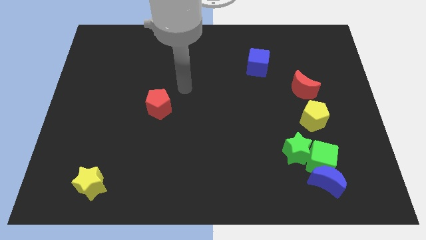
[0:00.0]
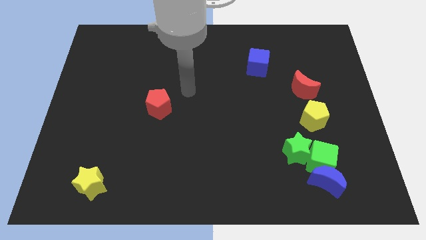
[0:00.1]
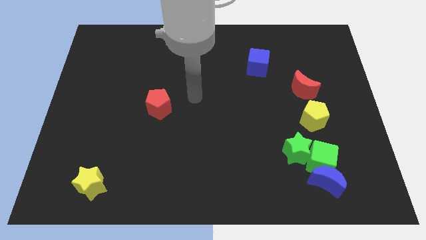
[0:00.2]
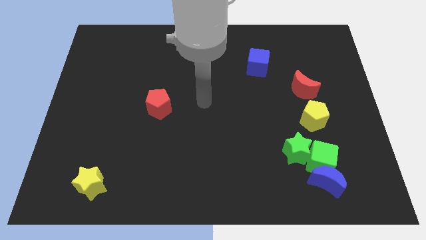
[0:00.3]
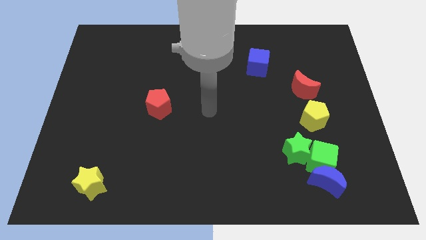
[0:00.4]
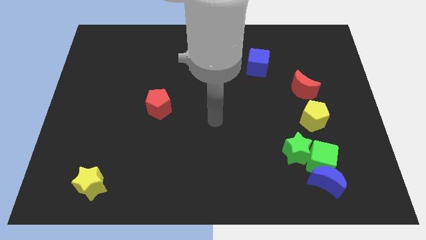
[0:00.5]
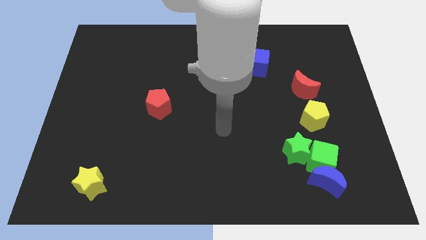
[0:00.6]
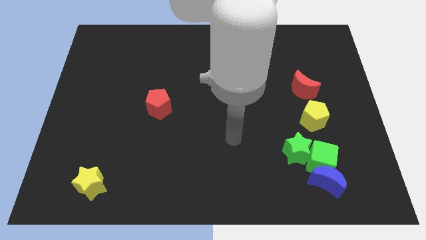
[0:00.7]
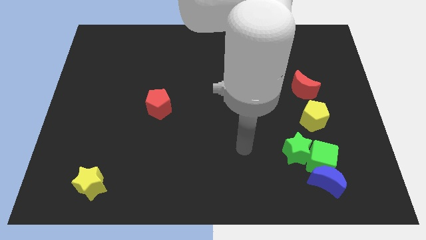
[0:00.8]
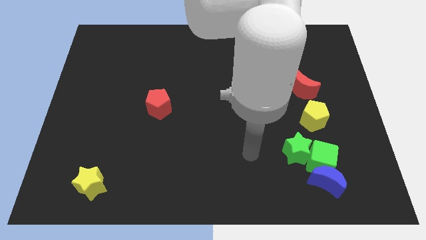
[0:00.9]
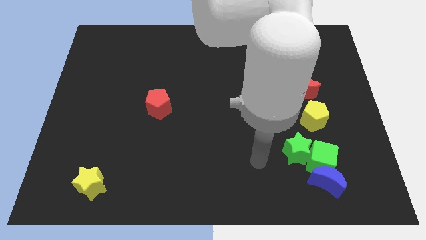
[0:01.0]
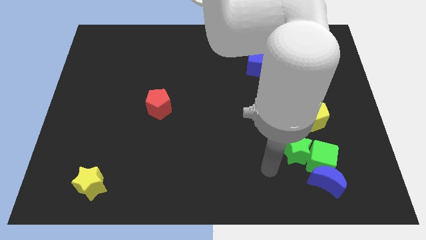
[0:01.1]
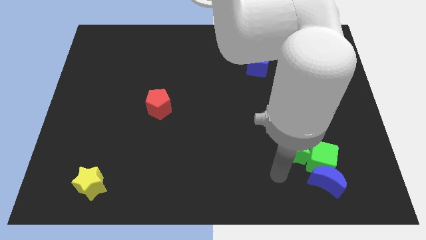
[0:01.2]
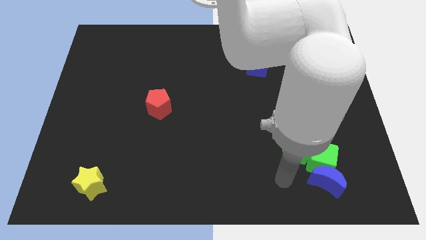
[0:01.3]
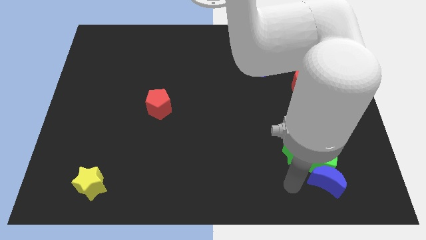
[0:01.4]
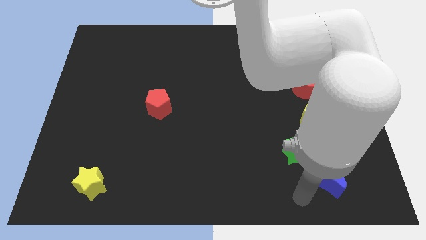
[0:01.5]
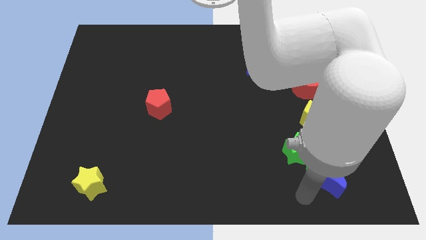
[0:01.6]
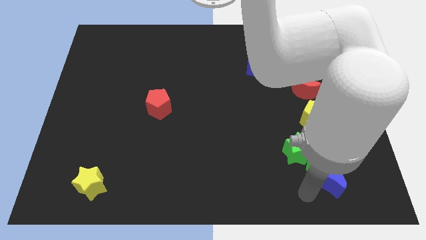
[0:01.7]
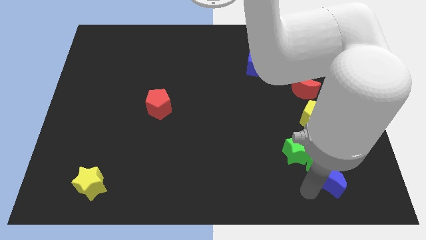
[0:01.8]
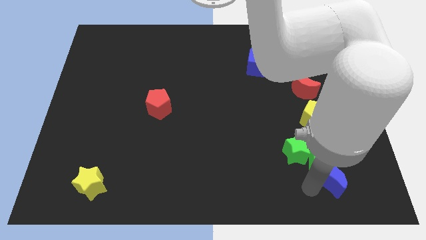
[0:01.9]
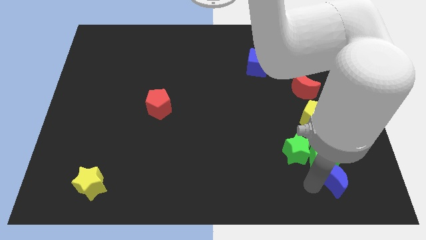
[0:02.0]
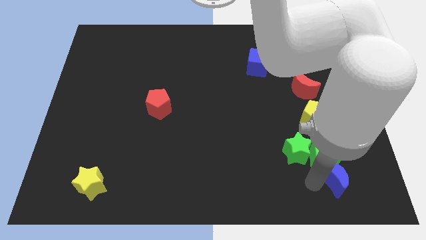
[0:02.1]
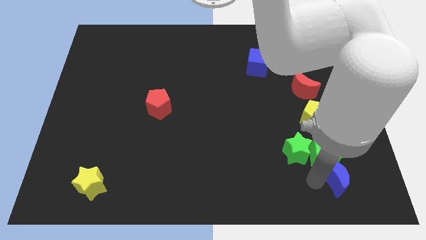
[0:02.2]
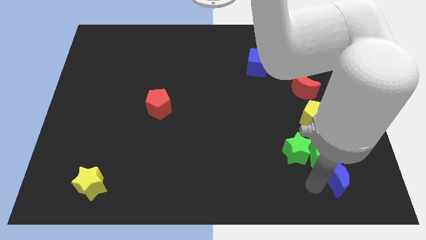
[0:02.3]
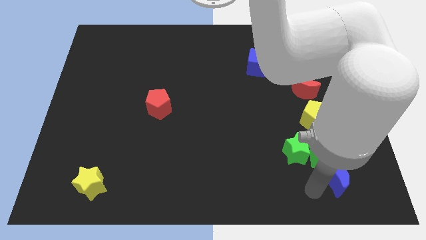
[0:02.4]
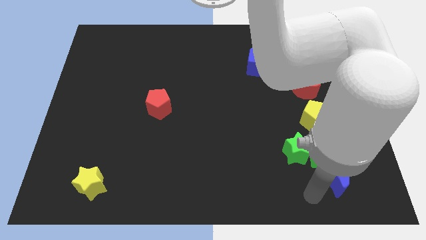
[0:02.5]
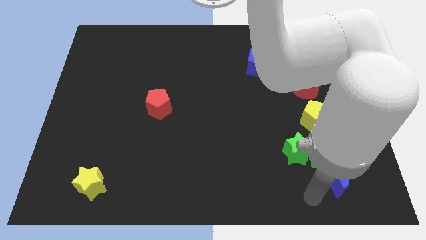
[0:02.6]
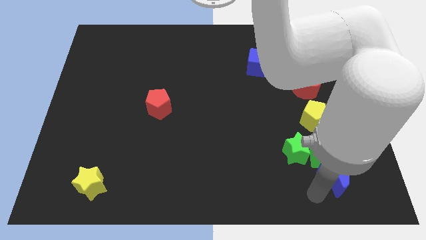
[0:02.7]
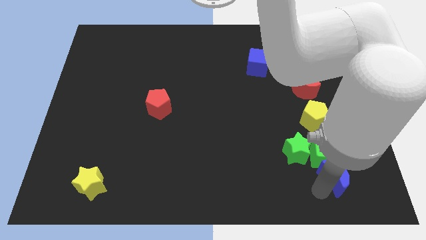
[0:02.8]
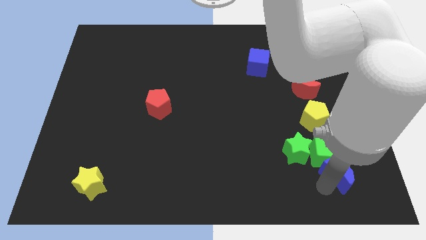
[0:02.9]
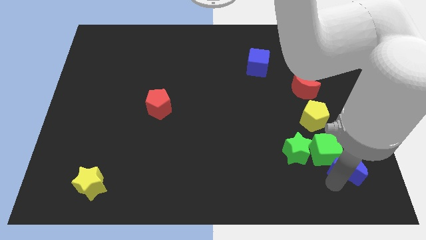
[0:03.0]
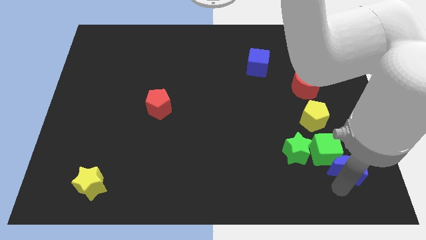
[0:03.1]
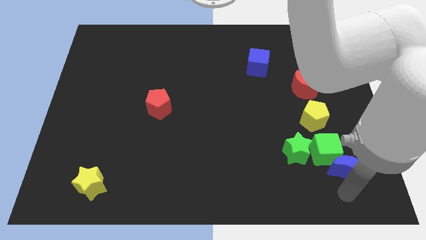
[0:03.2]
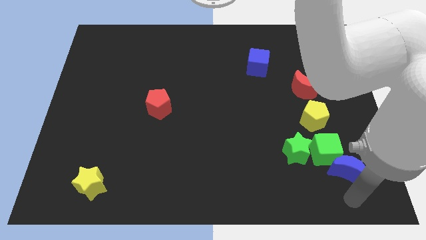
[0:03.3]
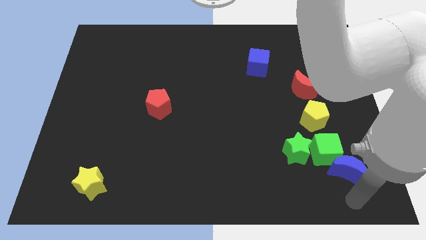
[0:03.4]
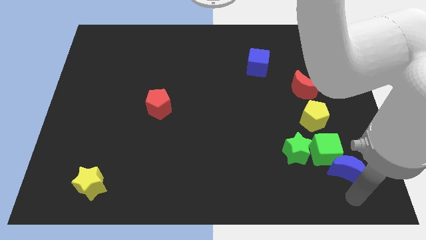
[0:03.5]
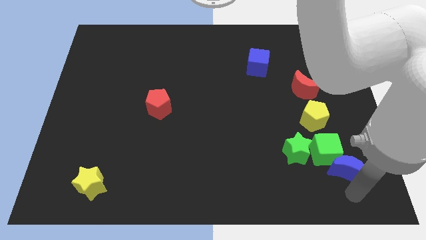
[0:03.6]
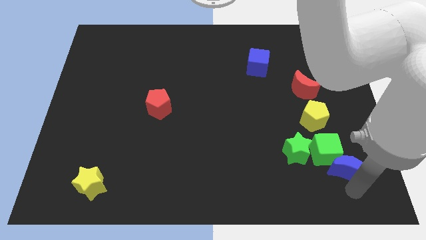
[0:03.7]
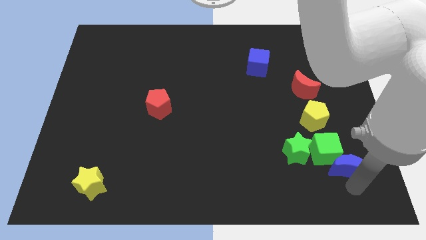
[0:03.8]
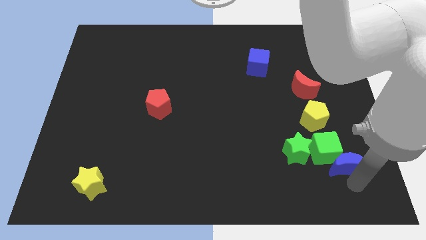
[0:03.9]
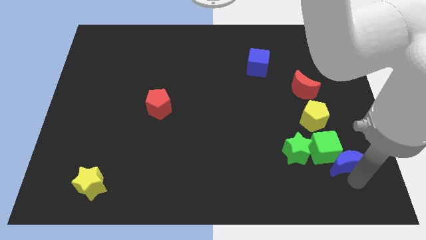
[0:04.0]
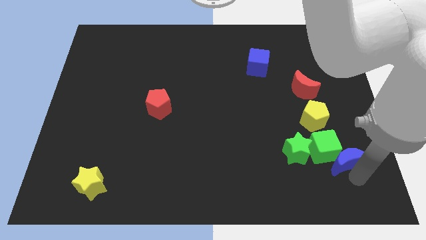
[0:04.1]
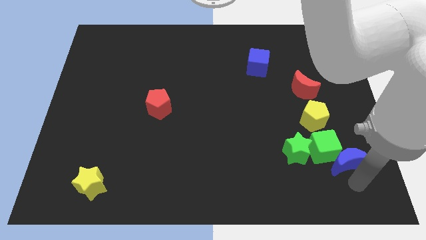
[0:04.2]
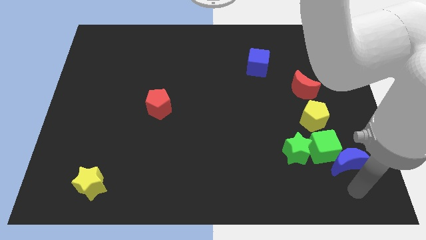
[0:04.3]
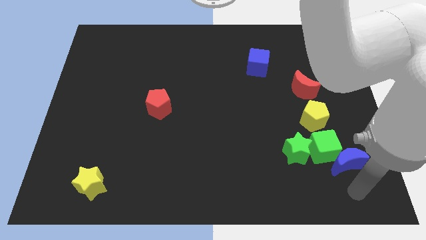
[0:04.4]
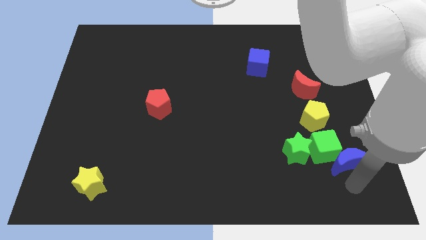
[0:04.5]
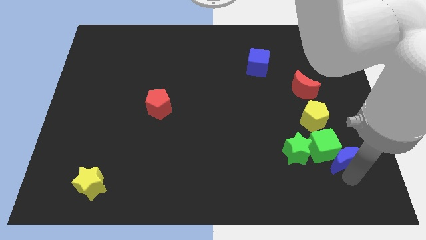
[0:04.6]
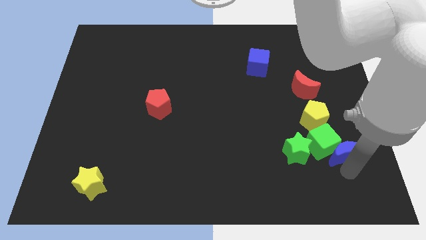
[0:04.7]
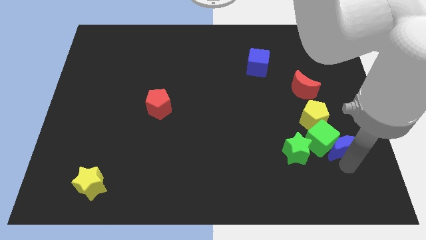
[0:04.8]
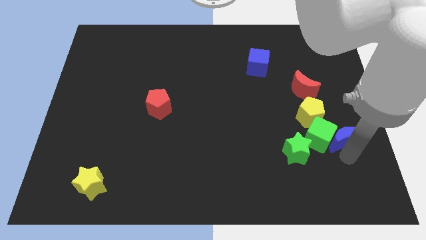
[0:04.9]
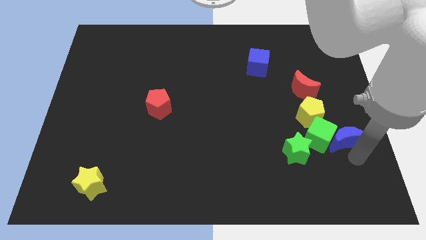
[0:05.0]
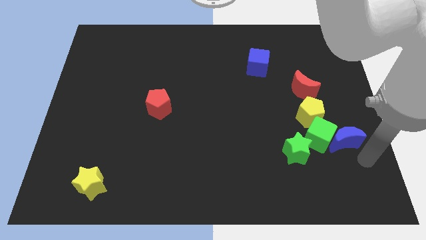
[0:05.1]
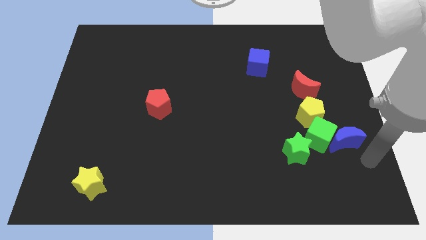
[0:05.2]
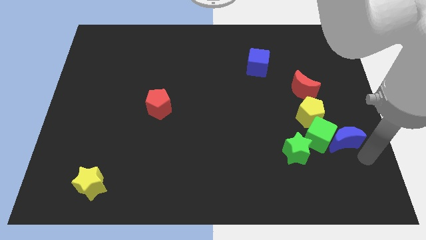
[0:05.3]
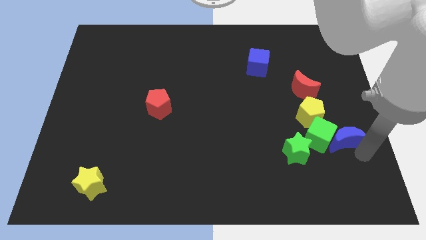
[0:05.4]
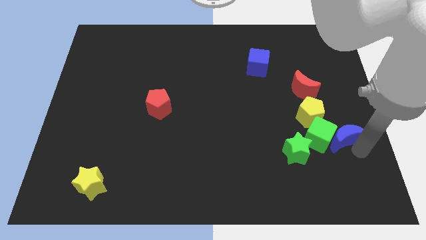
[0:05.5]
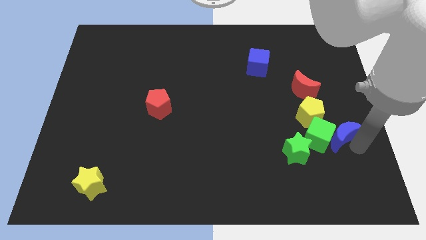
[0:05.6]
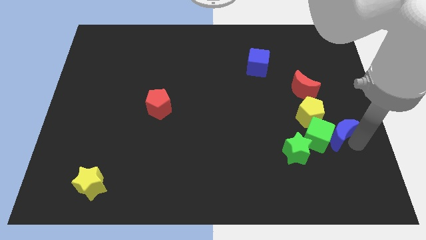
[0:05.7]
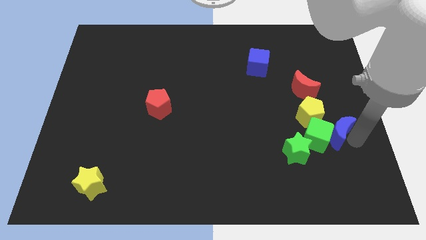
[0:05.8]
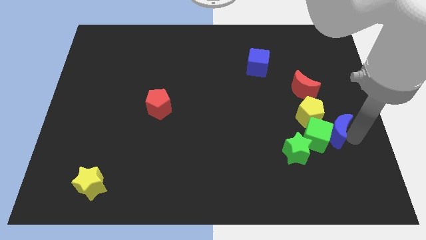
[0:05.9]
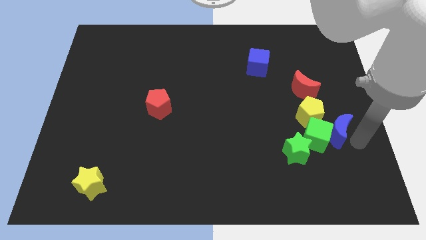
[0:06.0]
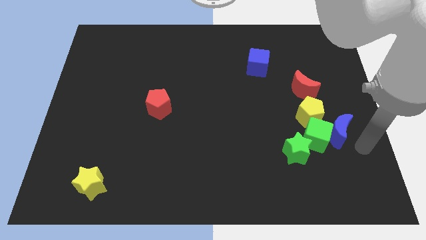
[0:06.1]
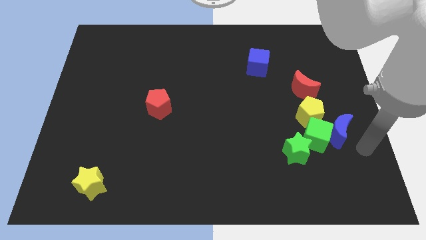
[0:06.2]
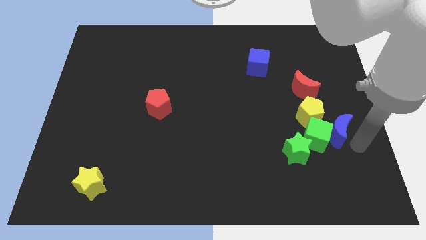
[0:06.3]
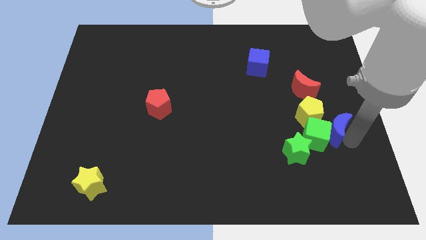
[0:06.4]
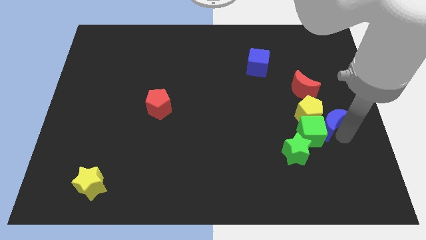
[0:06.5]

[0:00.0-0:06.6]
push the blue moon close to the yellow pentagon
